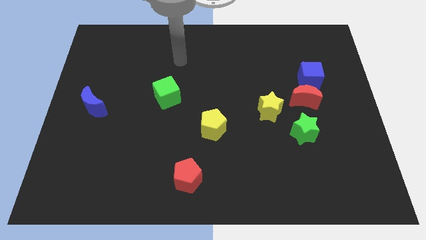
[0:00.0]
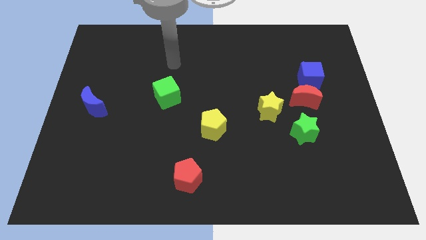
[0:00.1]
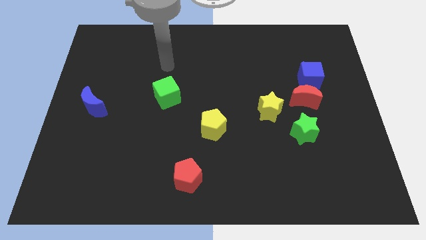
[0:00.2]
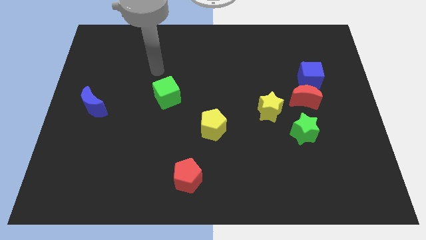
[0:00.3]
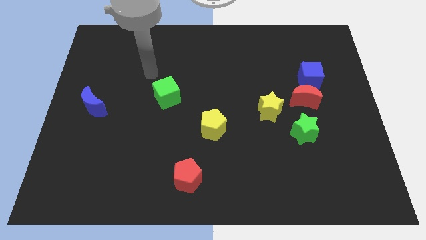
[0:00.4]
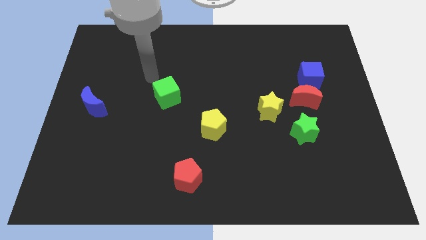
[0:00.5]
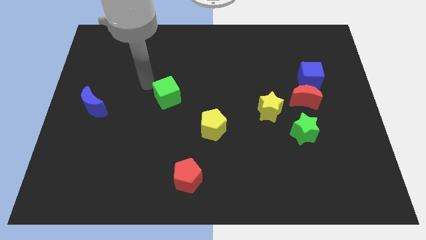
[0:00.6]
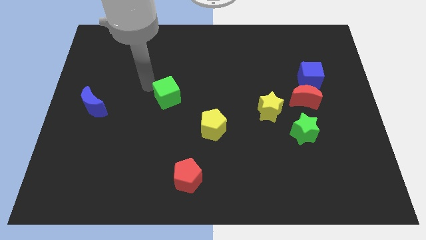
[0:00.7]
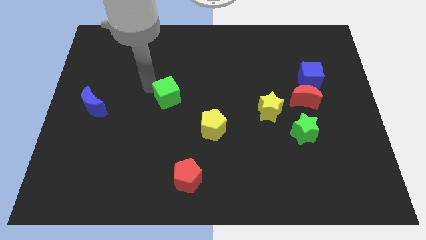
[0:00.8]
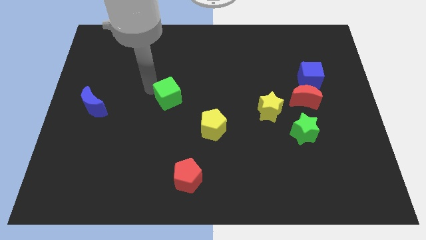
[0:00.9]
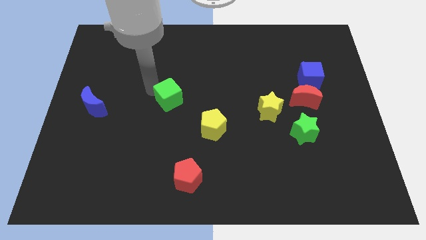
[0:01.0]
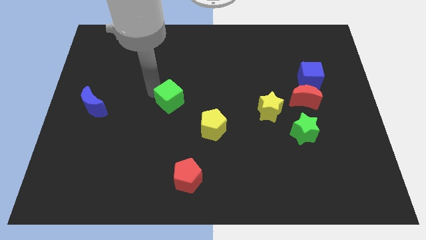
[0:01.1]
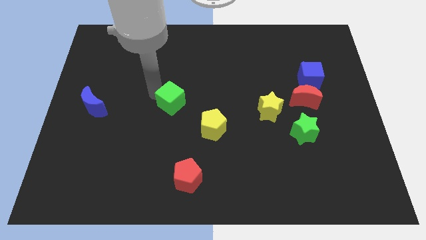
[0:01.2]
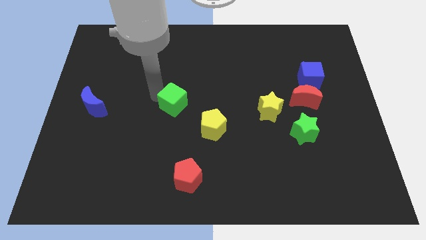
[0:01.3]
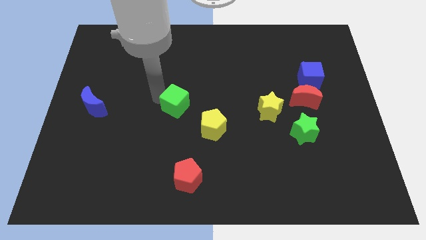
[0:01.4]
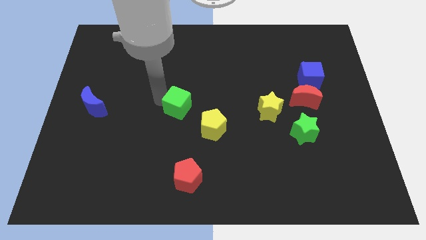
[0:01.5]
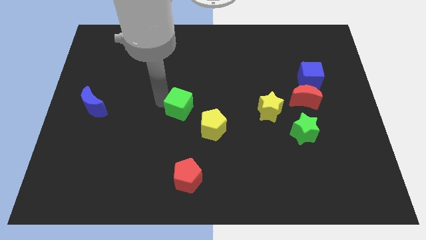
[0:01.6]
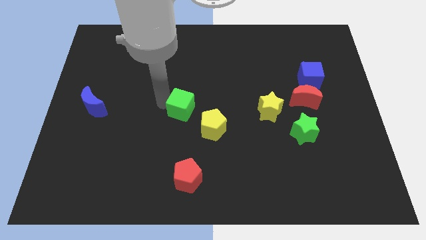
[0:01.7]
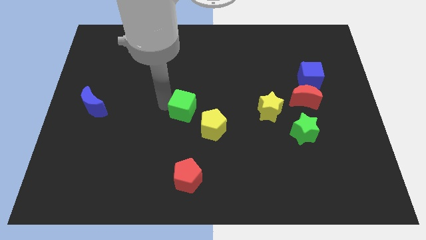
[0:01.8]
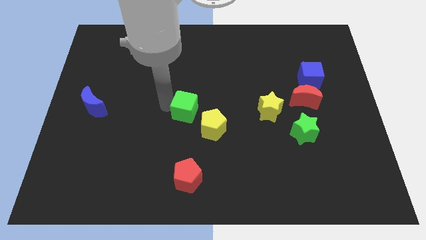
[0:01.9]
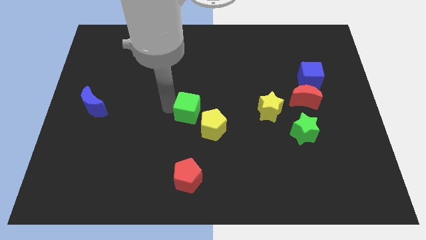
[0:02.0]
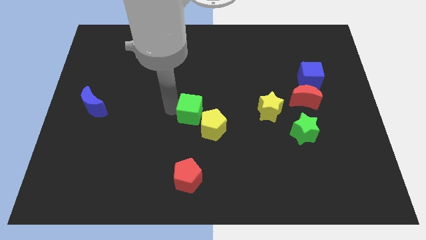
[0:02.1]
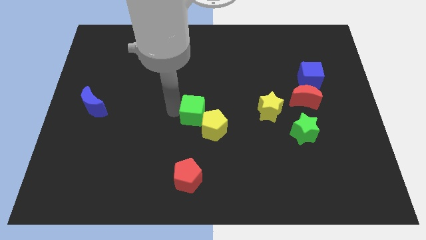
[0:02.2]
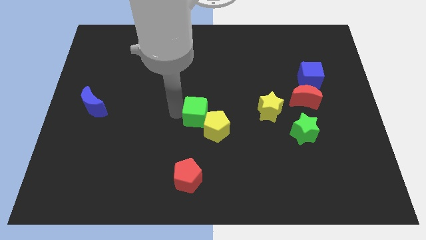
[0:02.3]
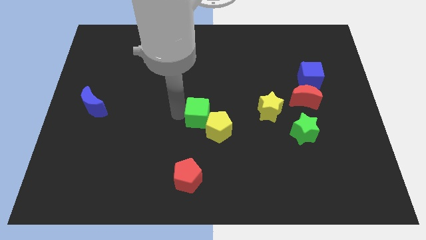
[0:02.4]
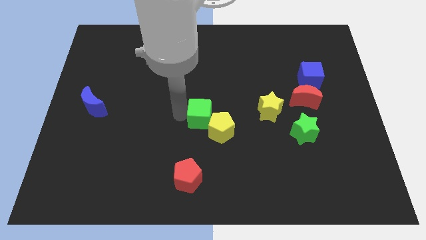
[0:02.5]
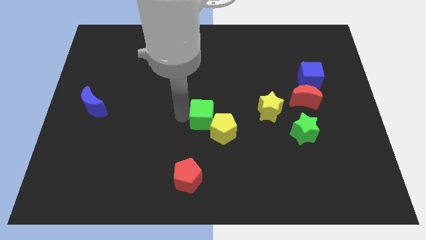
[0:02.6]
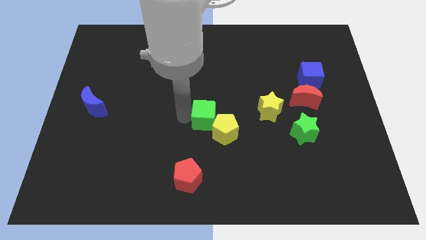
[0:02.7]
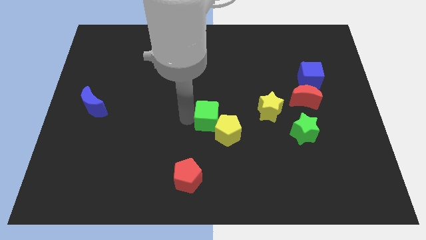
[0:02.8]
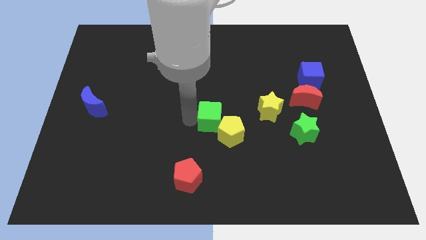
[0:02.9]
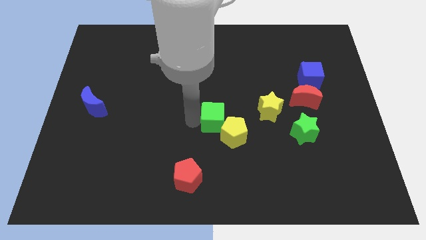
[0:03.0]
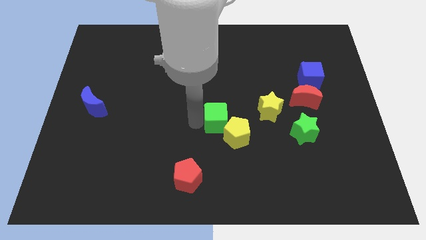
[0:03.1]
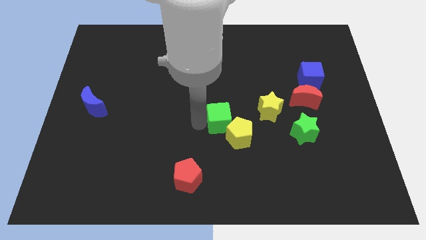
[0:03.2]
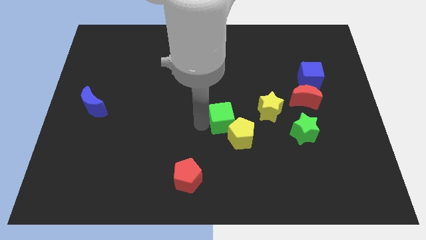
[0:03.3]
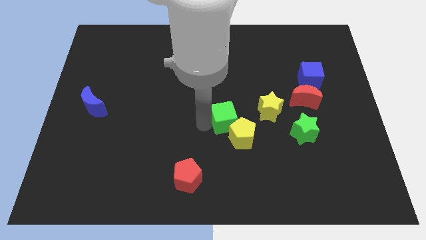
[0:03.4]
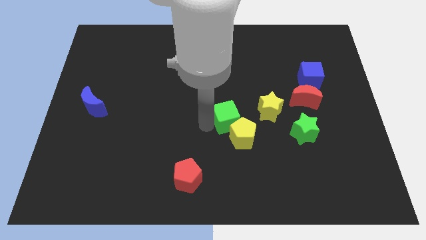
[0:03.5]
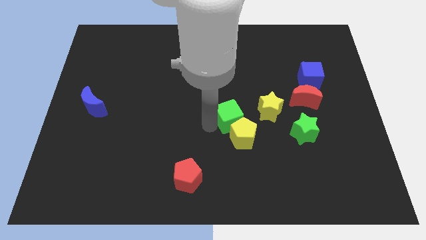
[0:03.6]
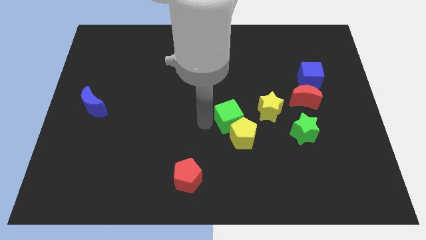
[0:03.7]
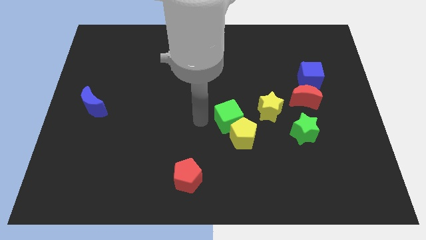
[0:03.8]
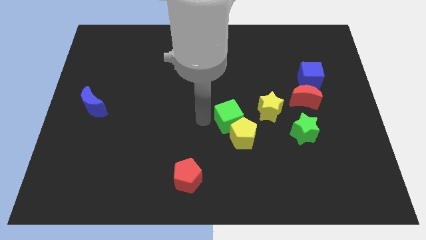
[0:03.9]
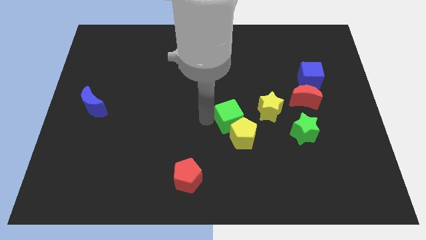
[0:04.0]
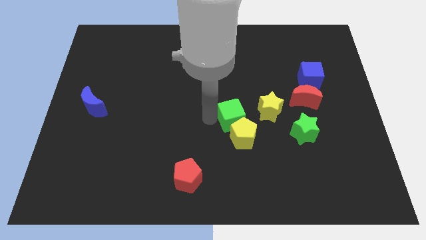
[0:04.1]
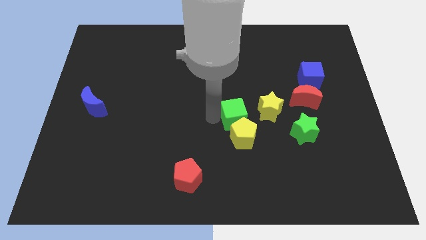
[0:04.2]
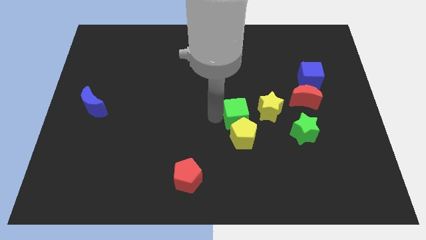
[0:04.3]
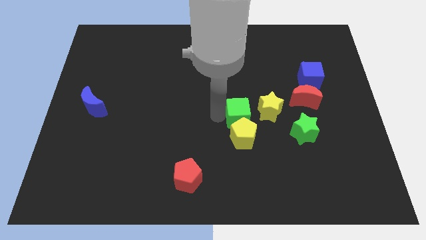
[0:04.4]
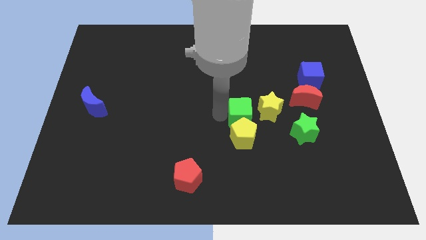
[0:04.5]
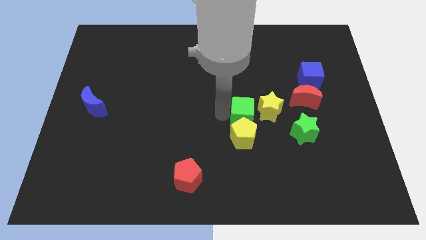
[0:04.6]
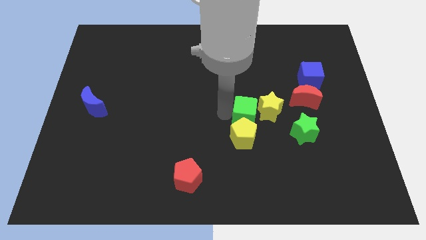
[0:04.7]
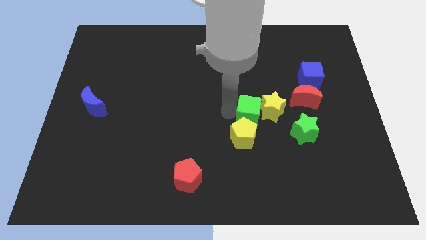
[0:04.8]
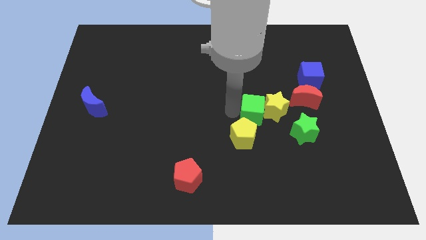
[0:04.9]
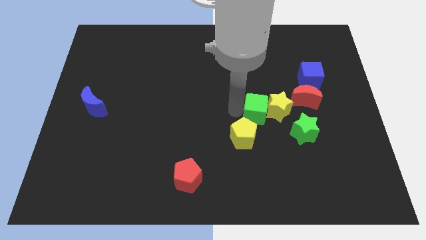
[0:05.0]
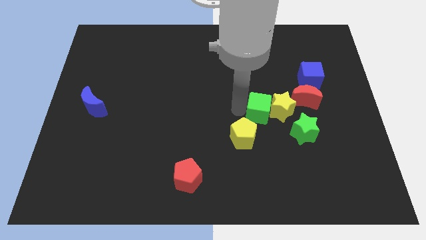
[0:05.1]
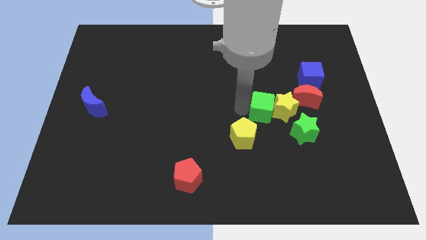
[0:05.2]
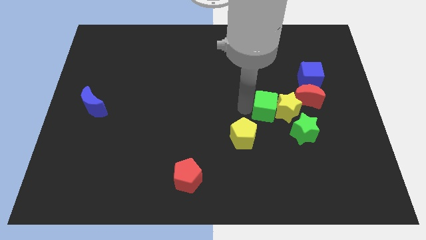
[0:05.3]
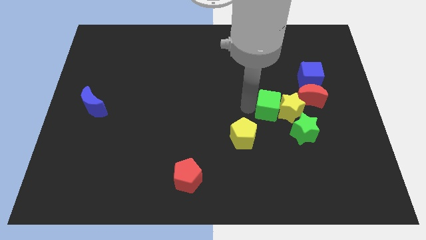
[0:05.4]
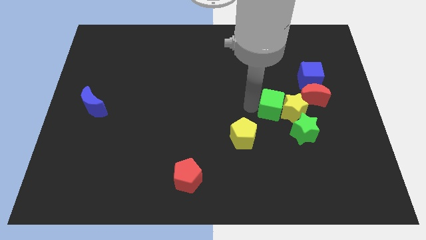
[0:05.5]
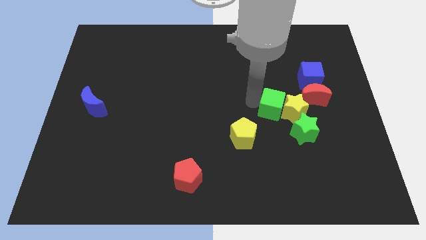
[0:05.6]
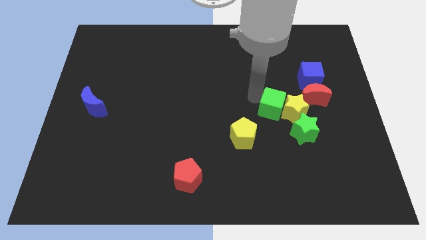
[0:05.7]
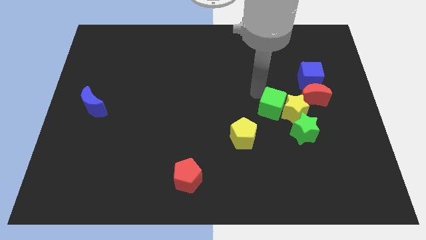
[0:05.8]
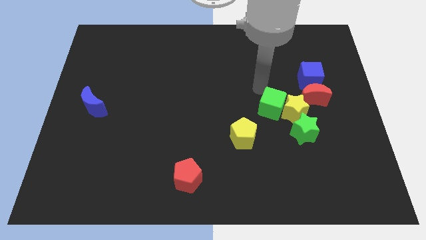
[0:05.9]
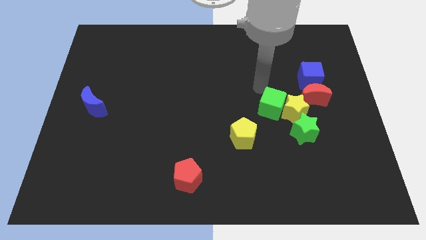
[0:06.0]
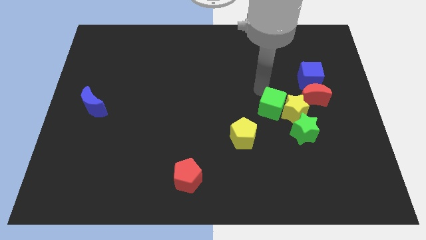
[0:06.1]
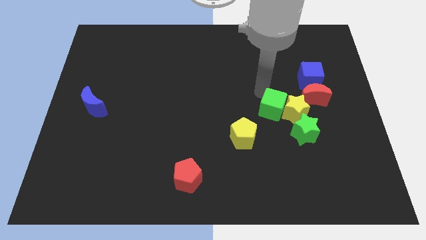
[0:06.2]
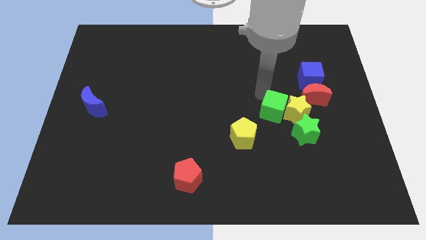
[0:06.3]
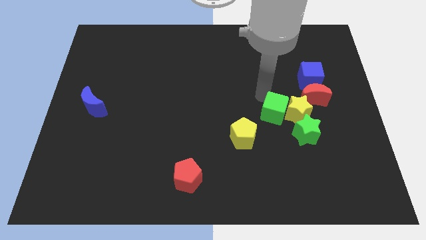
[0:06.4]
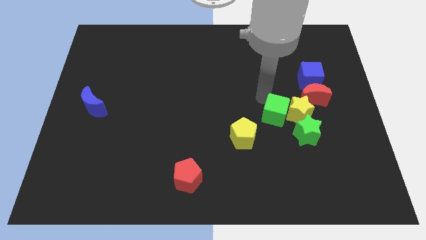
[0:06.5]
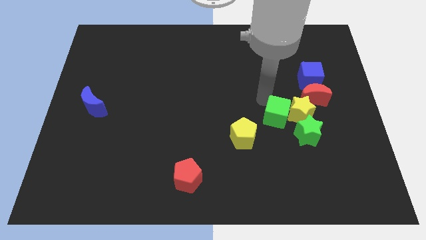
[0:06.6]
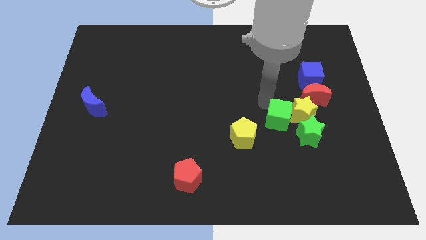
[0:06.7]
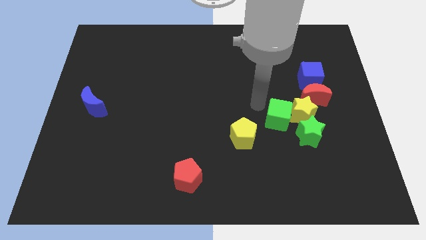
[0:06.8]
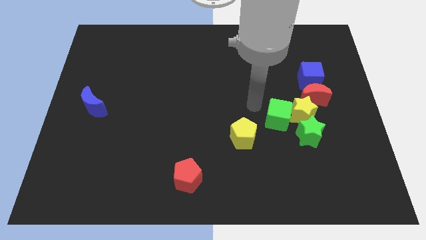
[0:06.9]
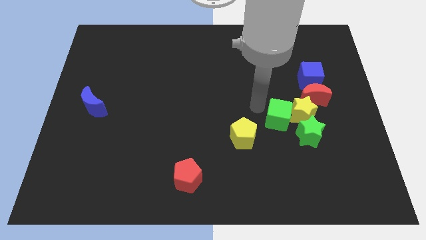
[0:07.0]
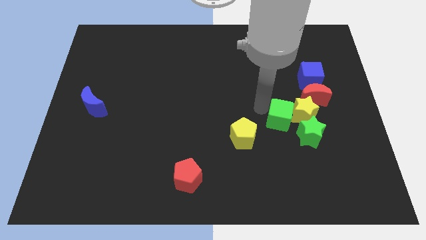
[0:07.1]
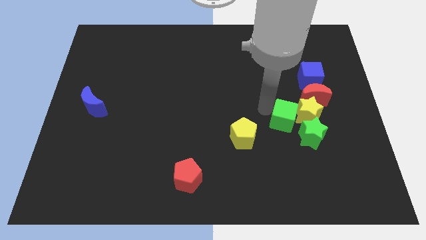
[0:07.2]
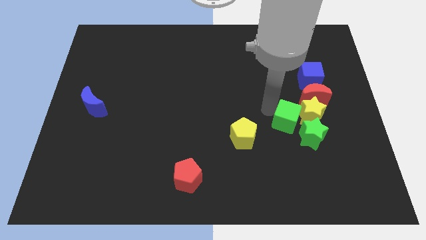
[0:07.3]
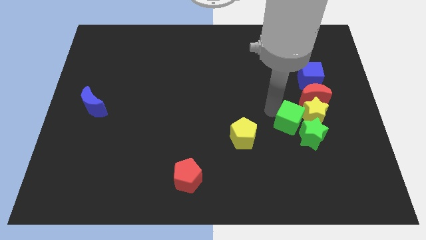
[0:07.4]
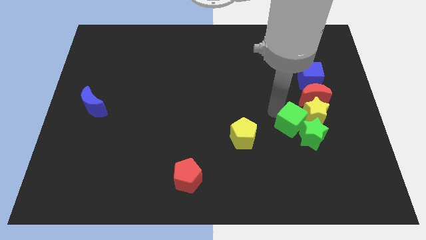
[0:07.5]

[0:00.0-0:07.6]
move the green cube close to the green star
